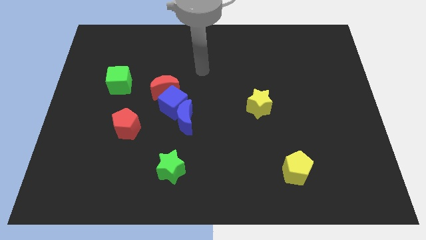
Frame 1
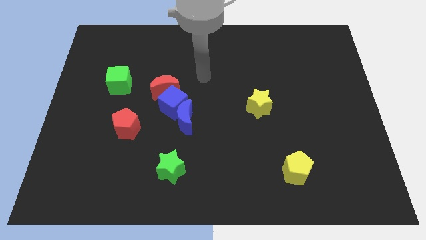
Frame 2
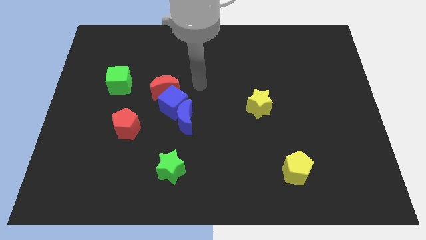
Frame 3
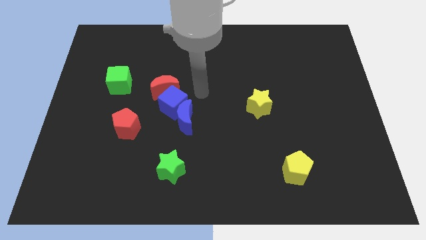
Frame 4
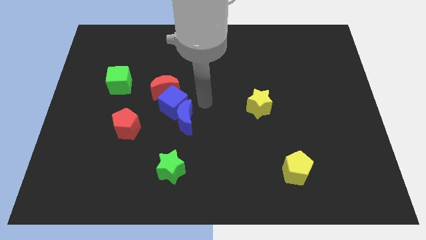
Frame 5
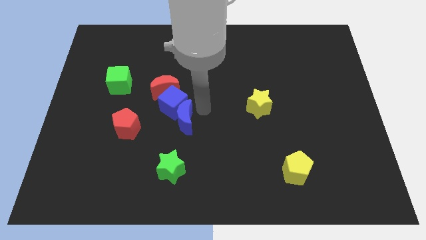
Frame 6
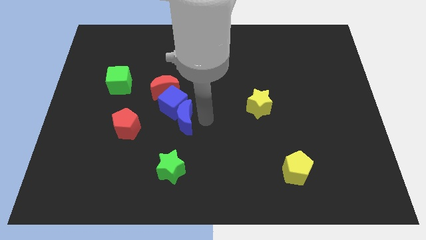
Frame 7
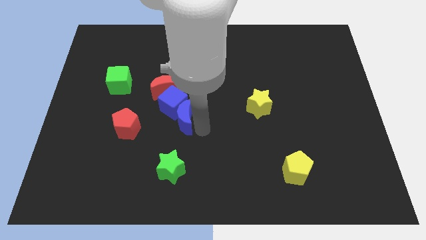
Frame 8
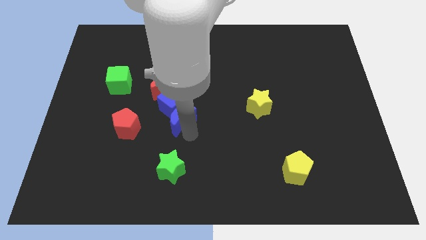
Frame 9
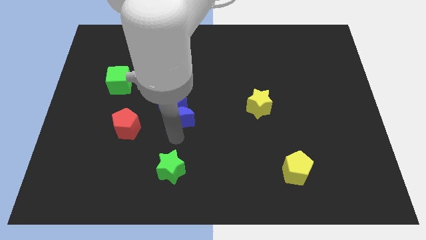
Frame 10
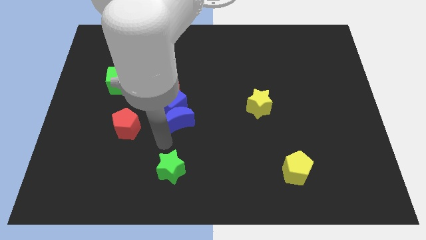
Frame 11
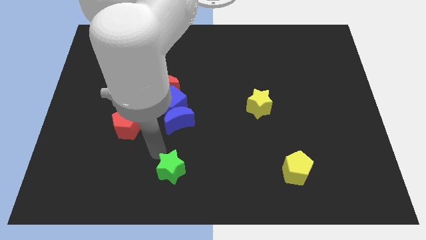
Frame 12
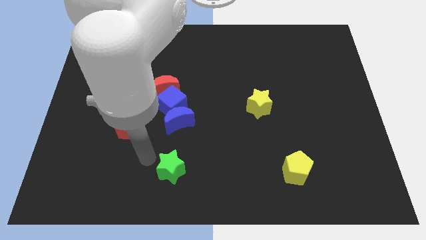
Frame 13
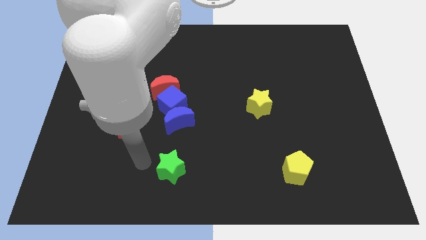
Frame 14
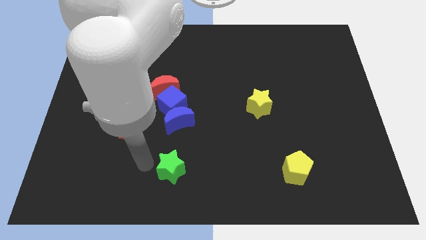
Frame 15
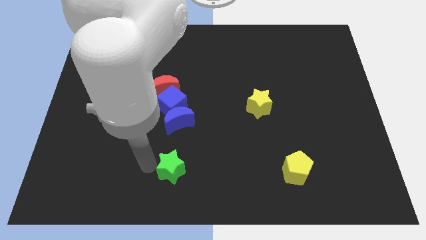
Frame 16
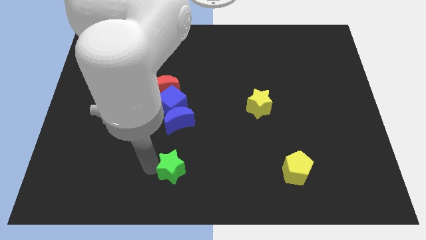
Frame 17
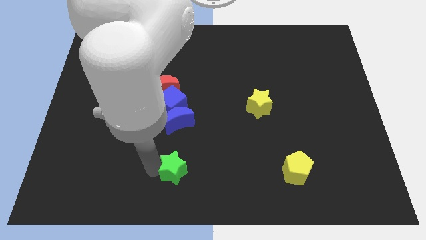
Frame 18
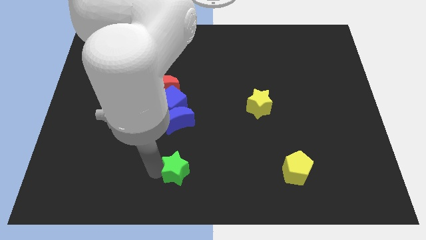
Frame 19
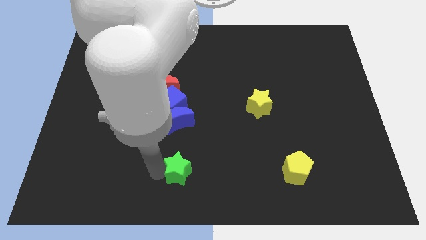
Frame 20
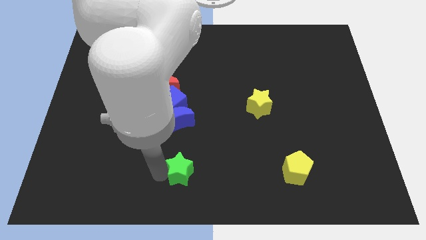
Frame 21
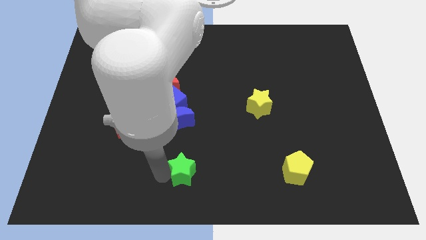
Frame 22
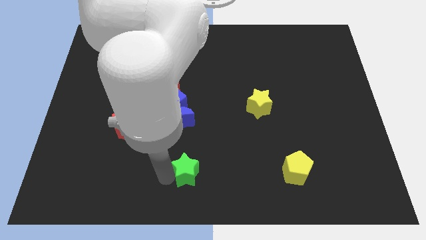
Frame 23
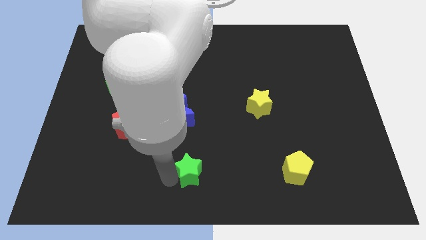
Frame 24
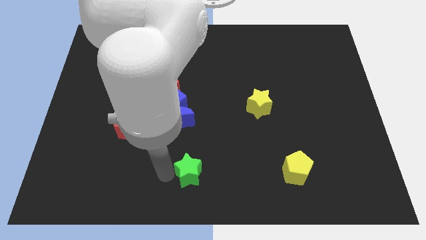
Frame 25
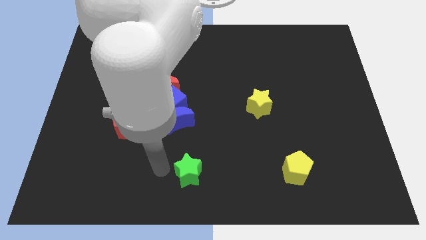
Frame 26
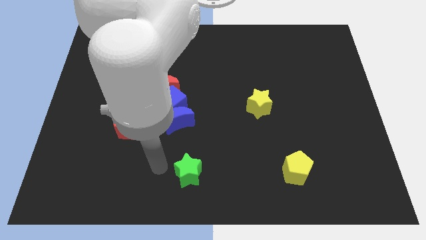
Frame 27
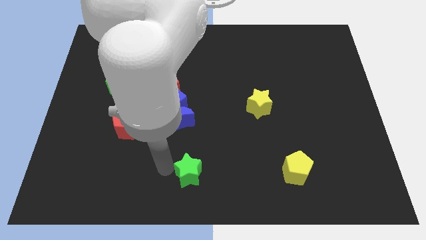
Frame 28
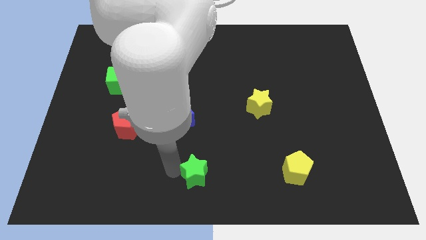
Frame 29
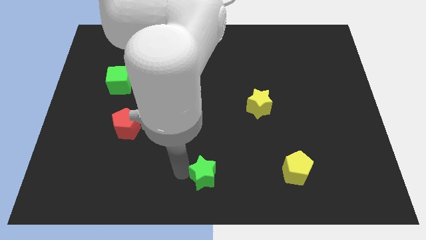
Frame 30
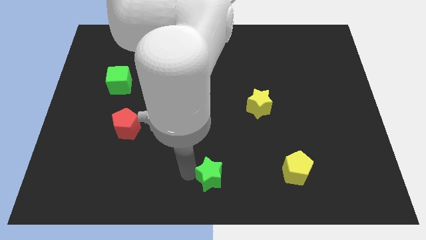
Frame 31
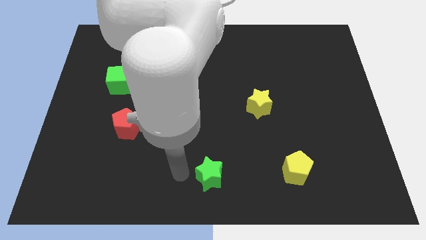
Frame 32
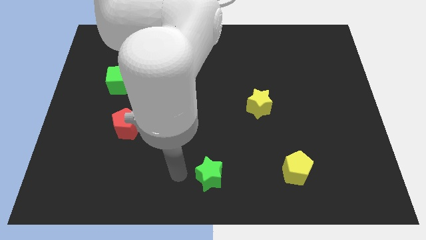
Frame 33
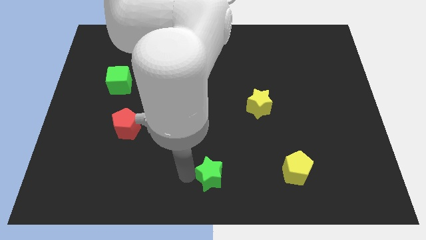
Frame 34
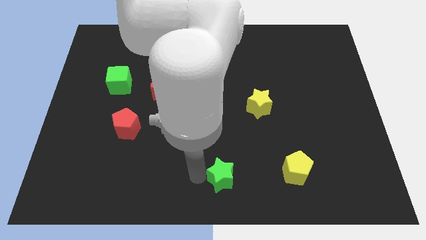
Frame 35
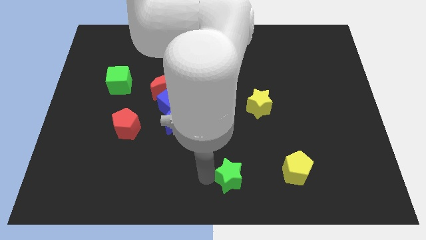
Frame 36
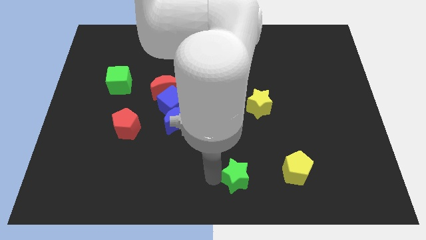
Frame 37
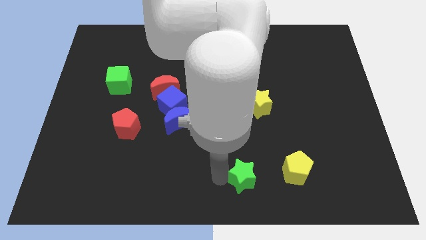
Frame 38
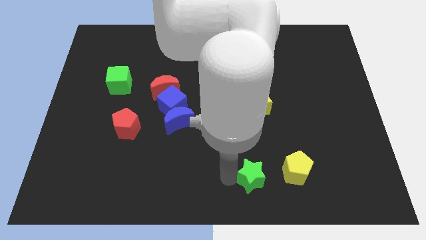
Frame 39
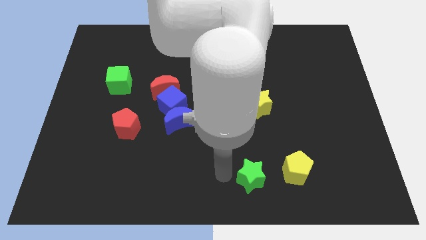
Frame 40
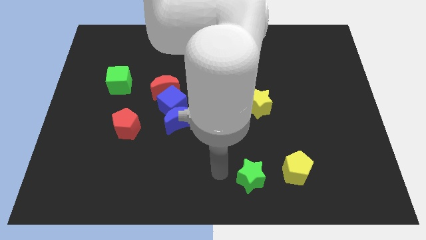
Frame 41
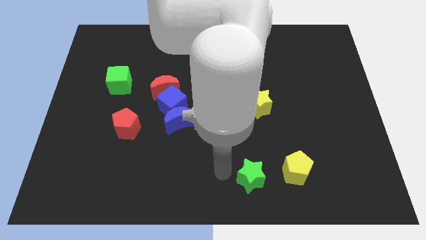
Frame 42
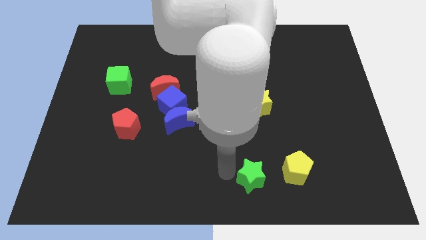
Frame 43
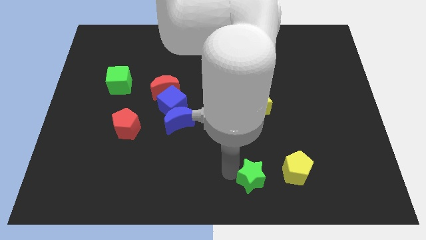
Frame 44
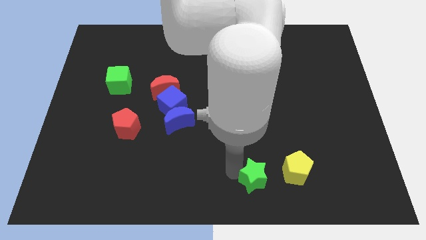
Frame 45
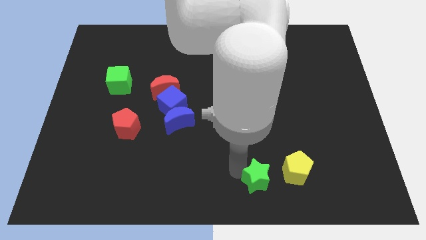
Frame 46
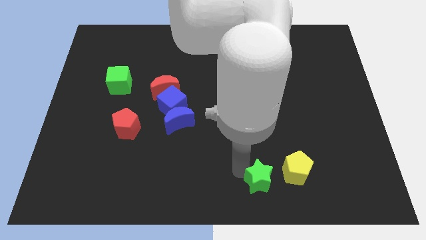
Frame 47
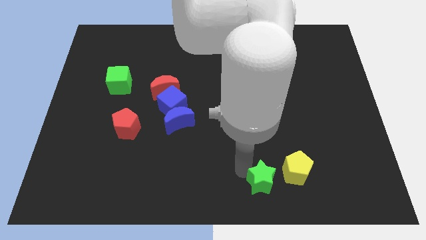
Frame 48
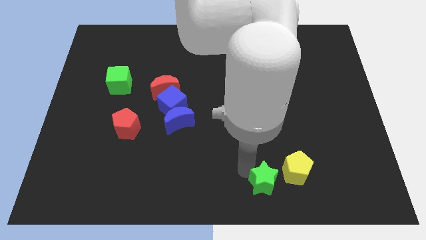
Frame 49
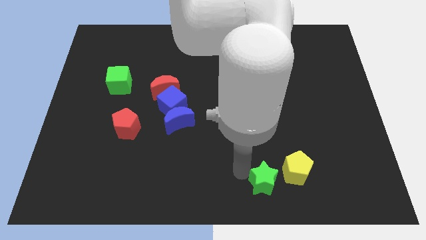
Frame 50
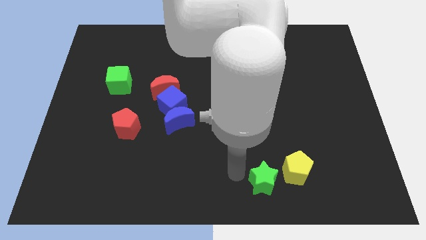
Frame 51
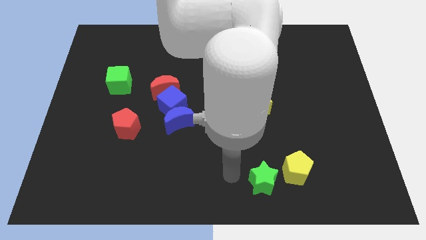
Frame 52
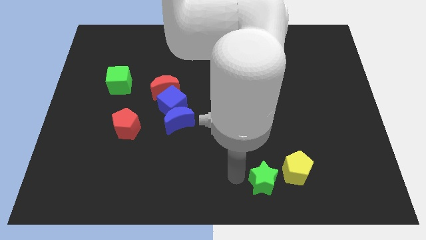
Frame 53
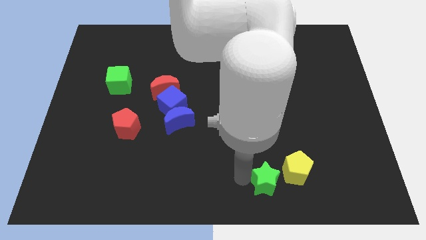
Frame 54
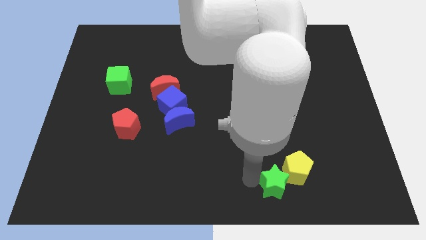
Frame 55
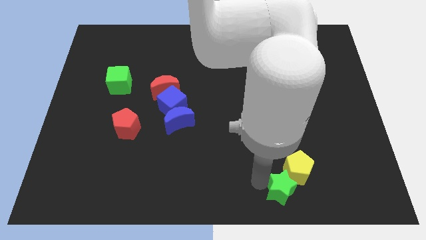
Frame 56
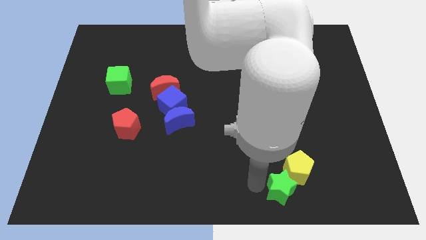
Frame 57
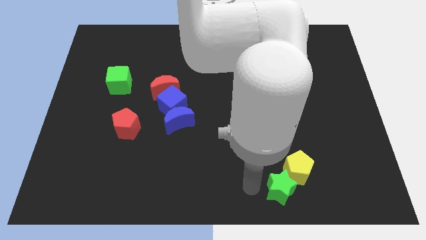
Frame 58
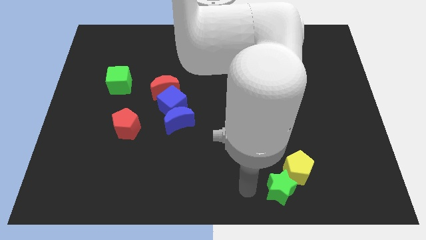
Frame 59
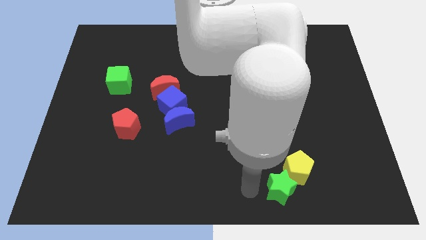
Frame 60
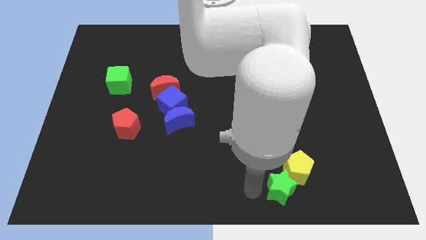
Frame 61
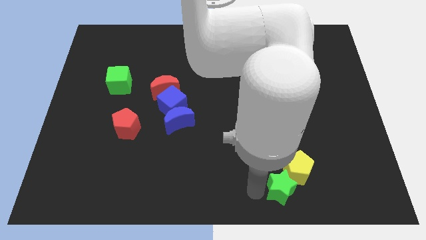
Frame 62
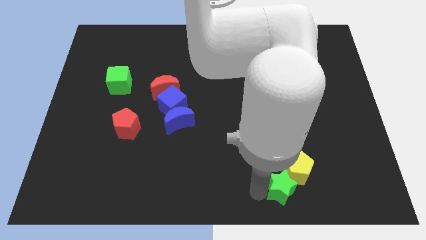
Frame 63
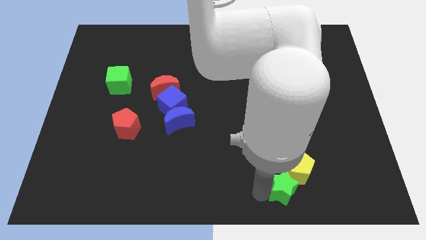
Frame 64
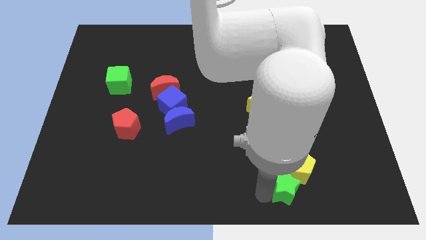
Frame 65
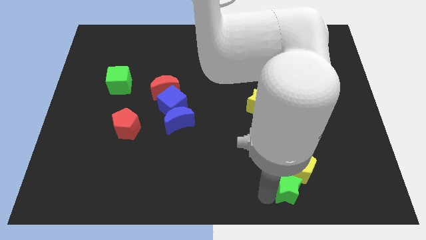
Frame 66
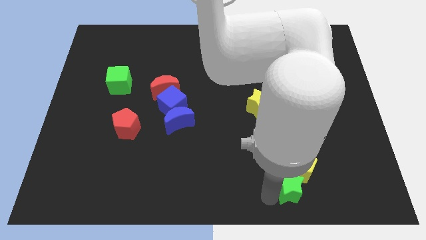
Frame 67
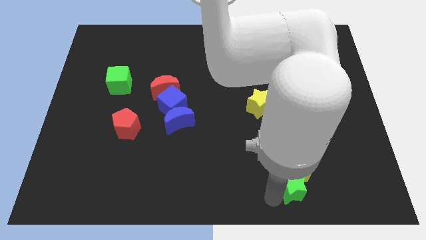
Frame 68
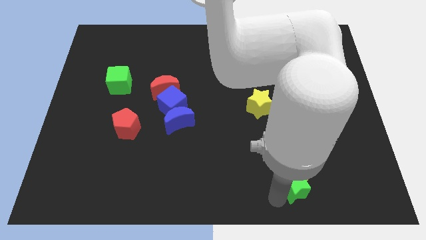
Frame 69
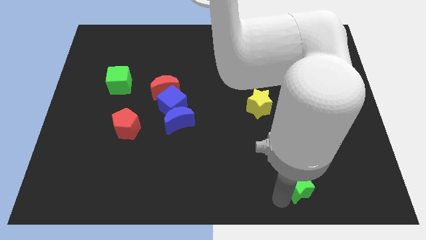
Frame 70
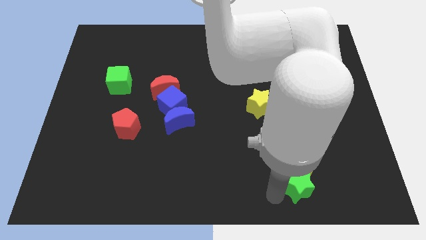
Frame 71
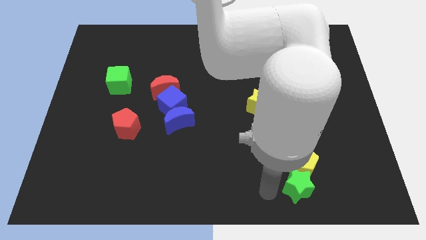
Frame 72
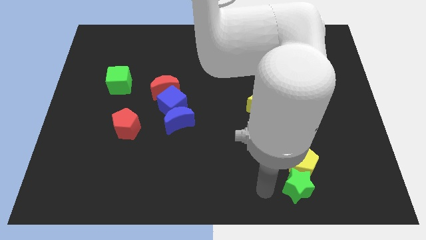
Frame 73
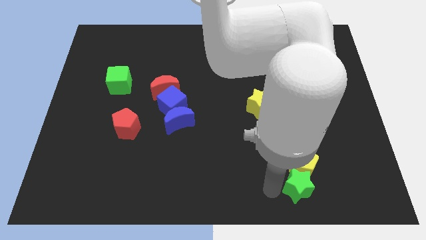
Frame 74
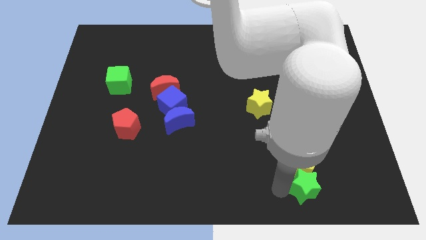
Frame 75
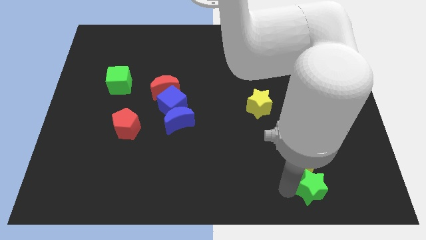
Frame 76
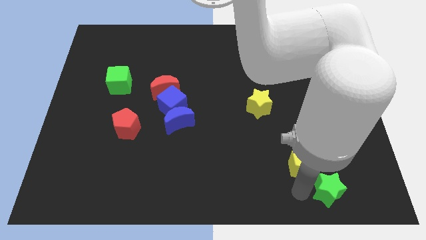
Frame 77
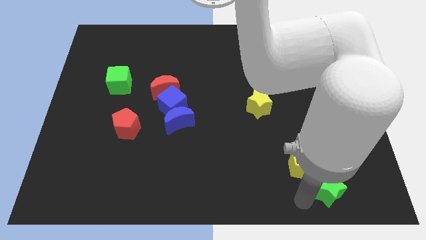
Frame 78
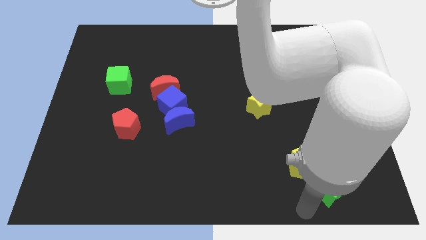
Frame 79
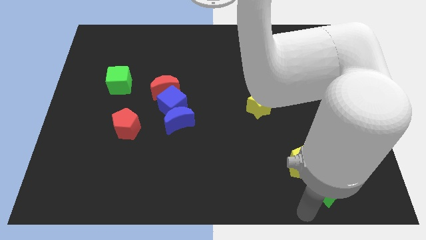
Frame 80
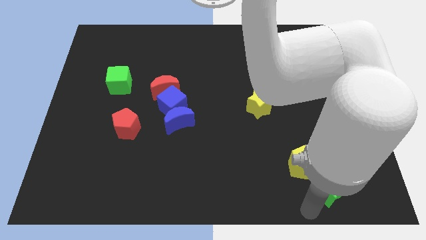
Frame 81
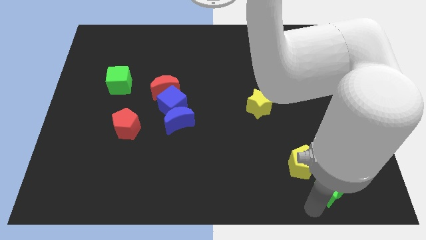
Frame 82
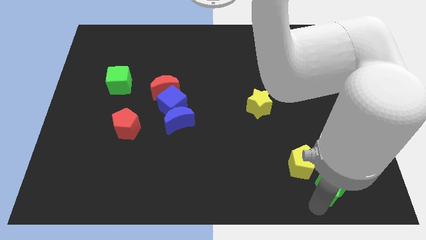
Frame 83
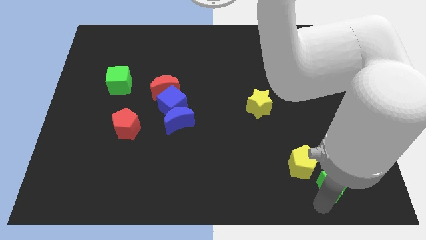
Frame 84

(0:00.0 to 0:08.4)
slide the green star to the right of the yellow pentagon
